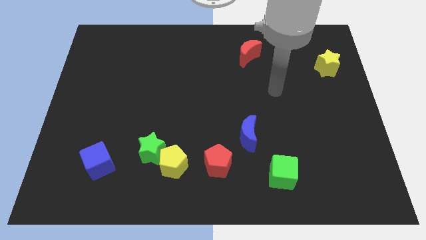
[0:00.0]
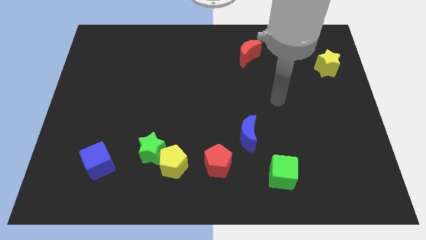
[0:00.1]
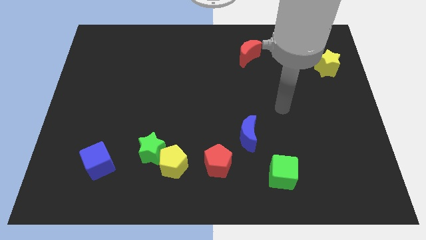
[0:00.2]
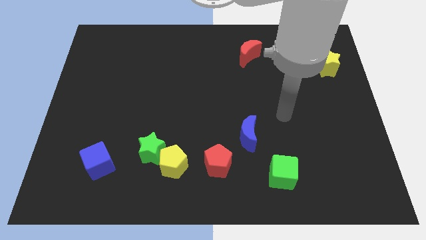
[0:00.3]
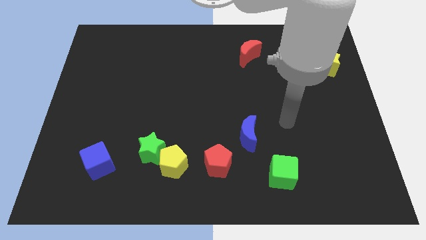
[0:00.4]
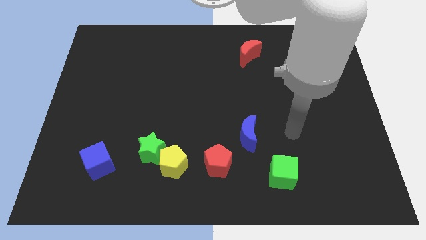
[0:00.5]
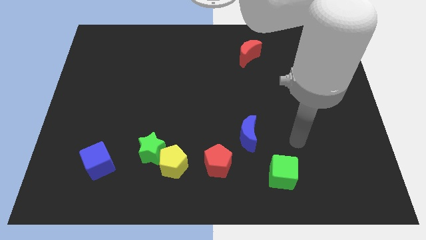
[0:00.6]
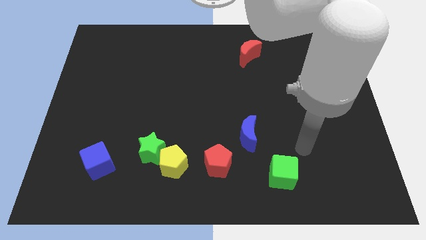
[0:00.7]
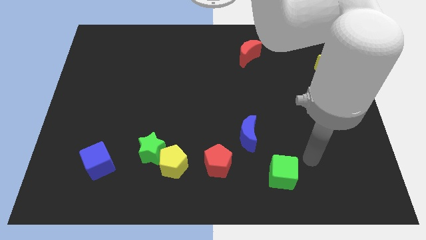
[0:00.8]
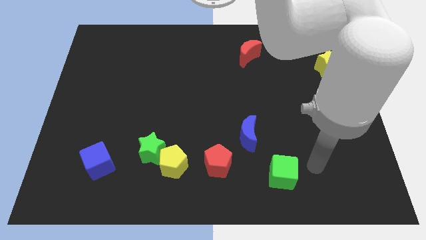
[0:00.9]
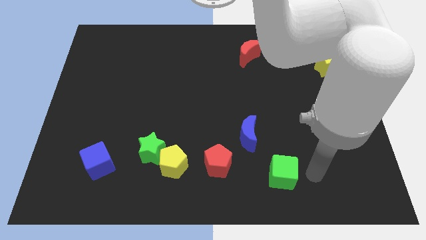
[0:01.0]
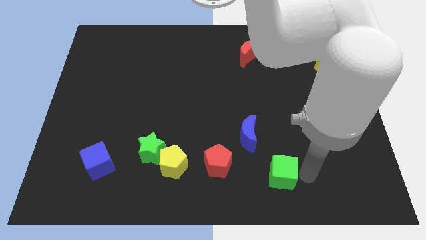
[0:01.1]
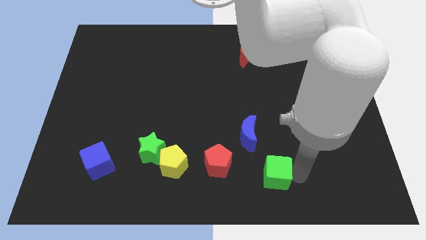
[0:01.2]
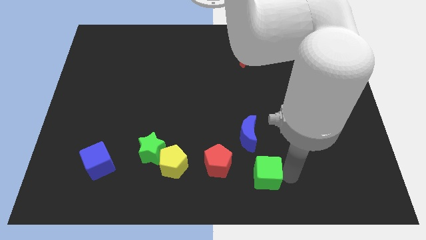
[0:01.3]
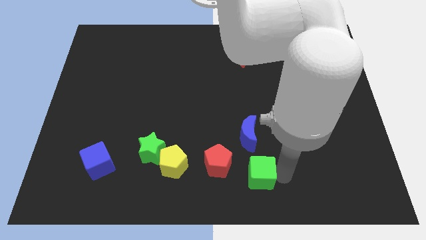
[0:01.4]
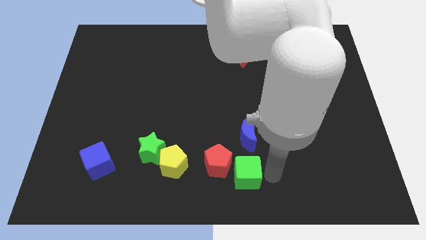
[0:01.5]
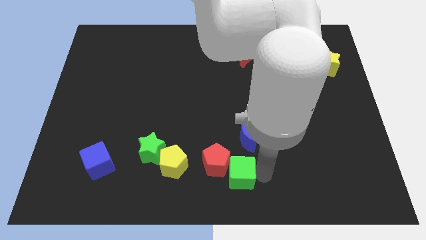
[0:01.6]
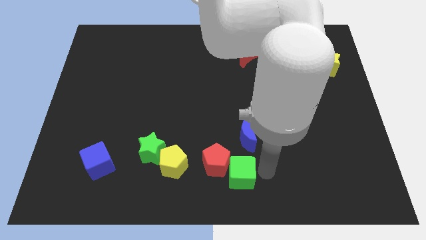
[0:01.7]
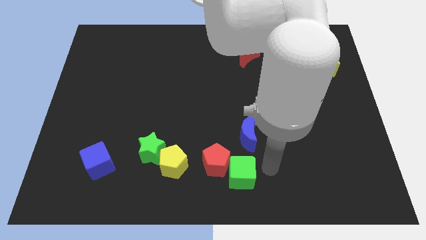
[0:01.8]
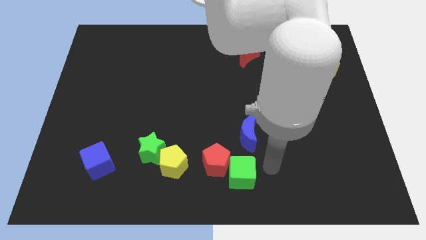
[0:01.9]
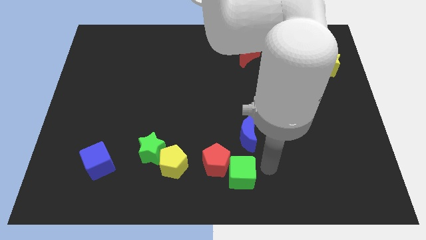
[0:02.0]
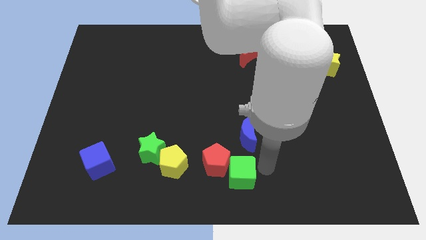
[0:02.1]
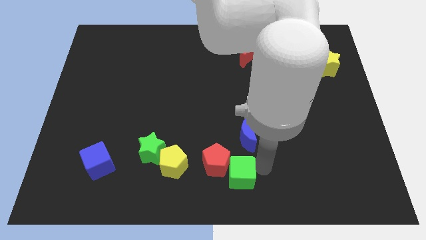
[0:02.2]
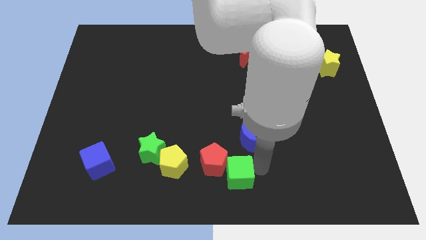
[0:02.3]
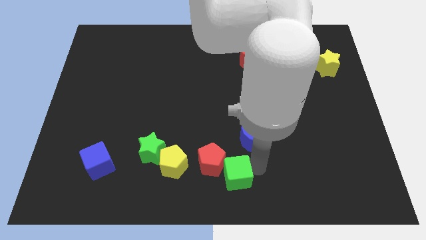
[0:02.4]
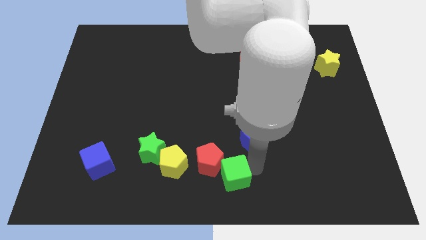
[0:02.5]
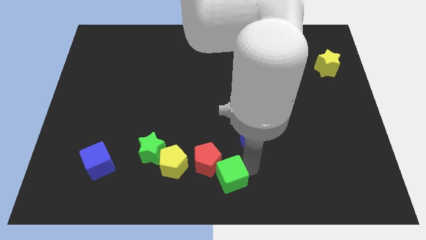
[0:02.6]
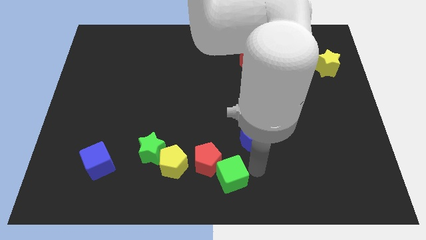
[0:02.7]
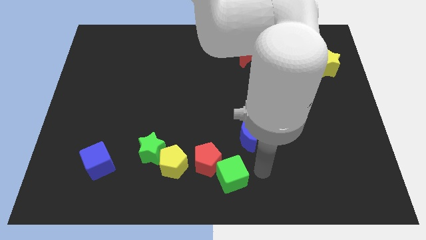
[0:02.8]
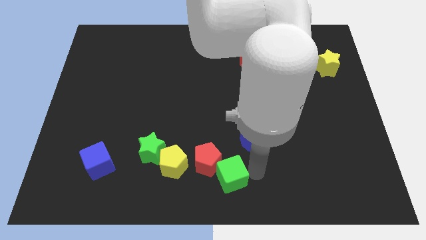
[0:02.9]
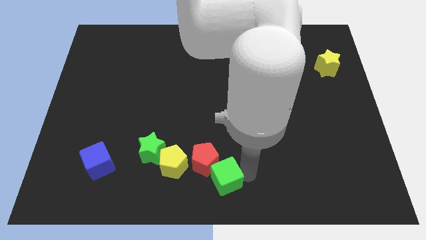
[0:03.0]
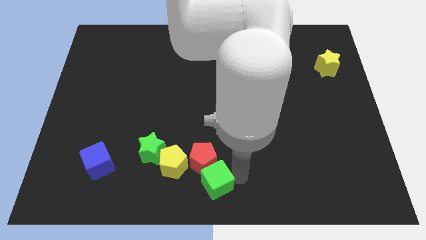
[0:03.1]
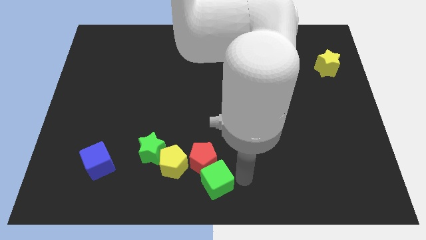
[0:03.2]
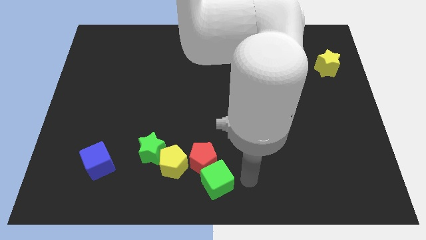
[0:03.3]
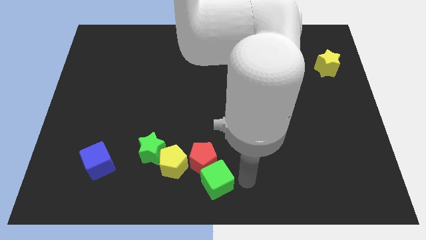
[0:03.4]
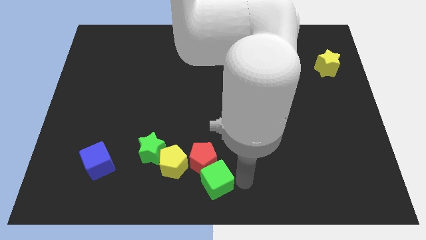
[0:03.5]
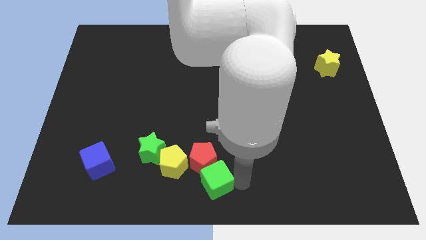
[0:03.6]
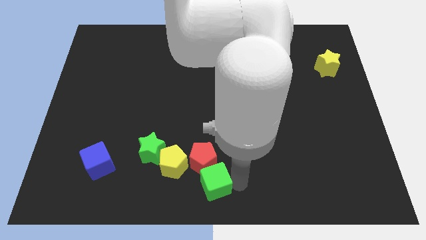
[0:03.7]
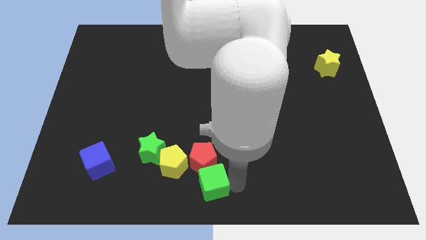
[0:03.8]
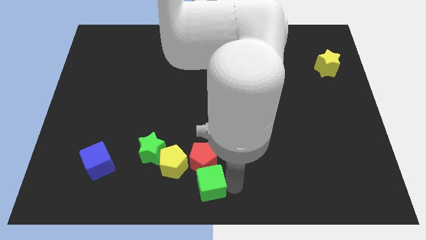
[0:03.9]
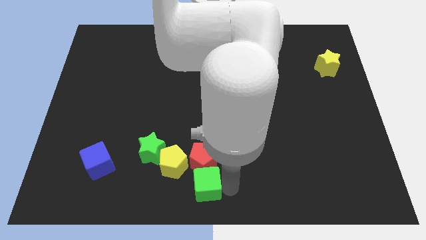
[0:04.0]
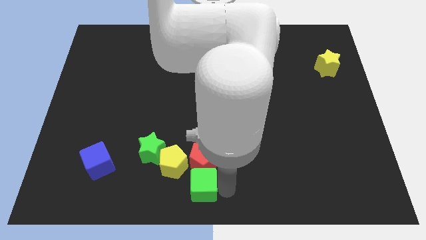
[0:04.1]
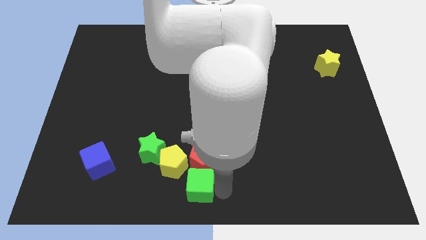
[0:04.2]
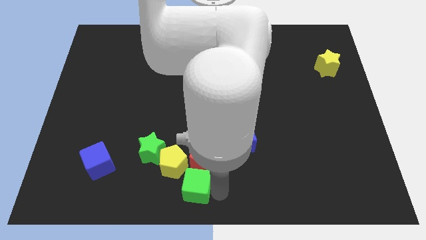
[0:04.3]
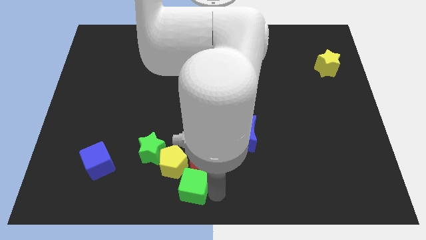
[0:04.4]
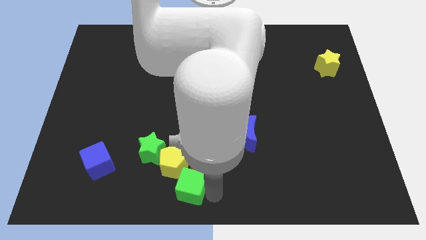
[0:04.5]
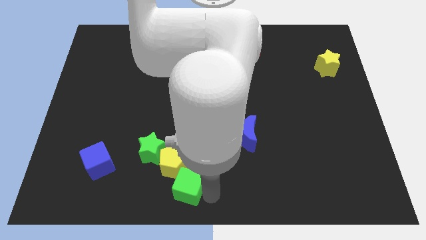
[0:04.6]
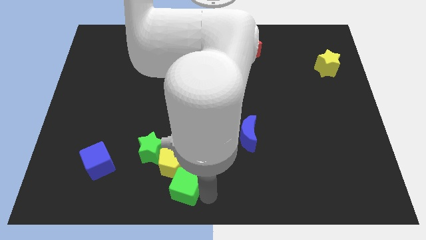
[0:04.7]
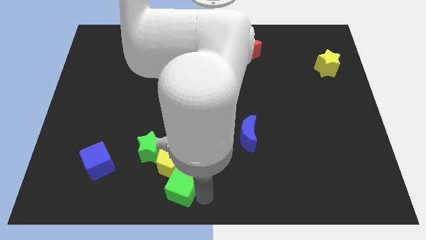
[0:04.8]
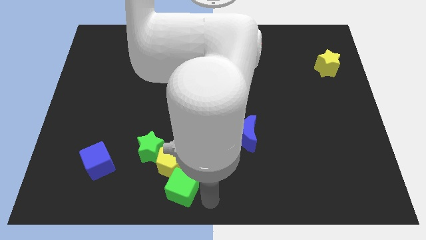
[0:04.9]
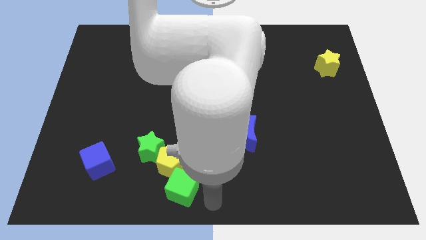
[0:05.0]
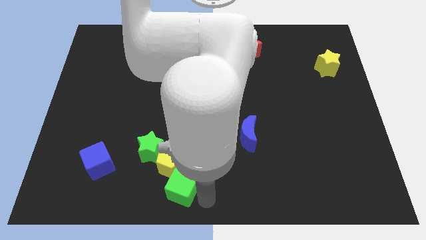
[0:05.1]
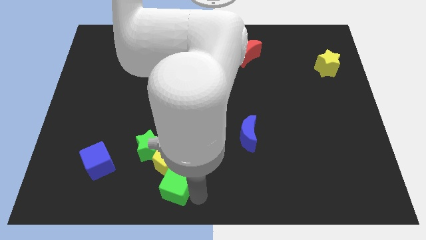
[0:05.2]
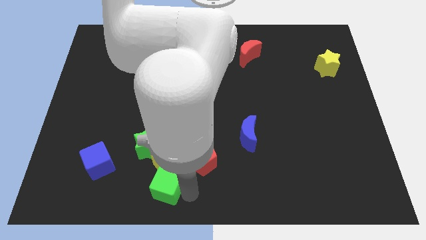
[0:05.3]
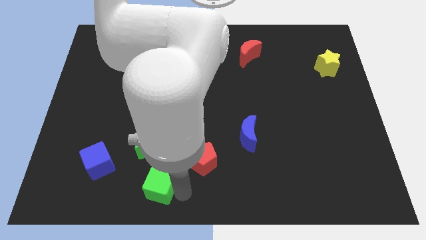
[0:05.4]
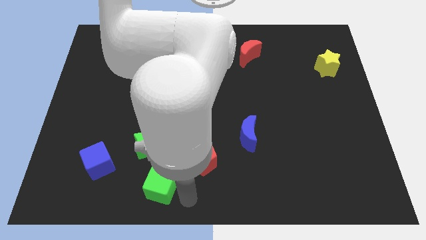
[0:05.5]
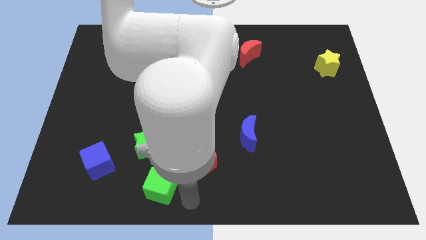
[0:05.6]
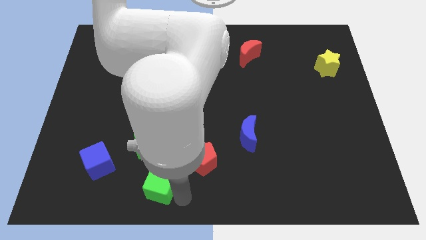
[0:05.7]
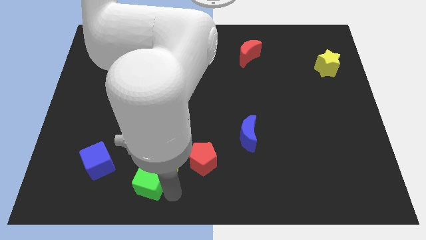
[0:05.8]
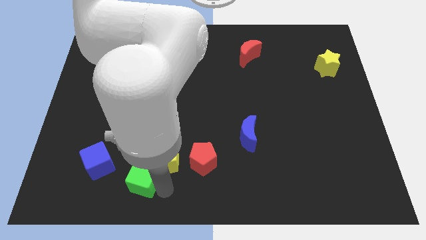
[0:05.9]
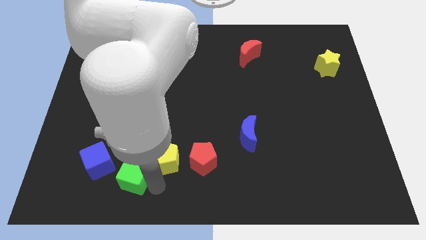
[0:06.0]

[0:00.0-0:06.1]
put the green cube to the bottom left side of the green star

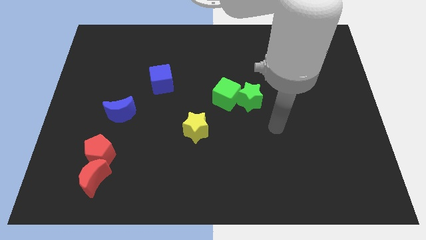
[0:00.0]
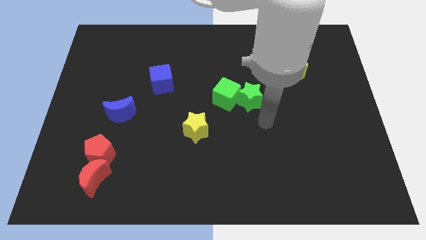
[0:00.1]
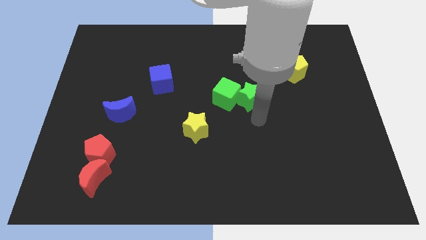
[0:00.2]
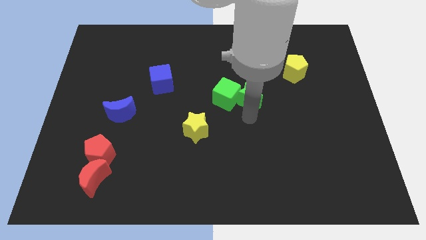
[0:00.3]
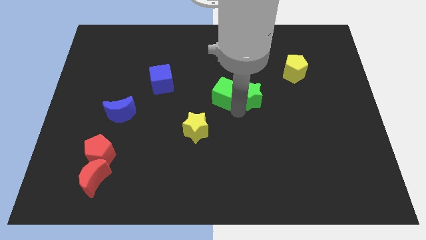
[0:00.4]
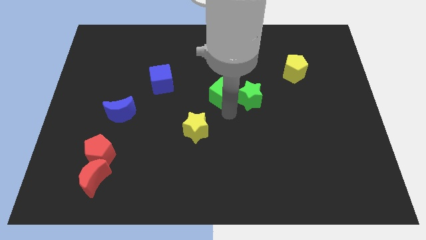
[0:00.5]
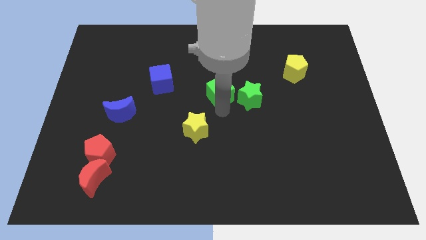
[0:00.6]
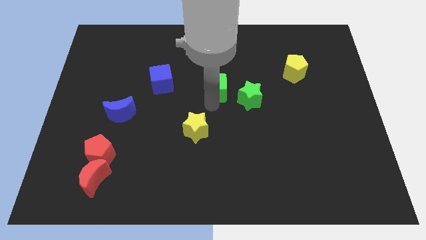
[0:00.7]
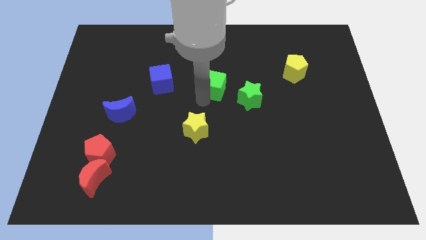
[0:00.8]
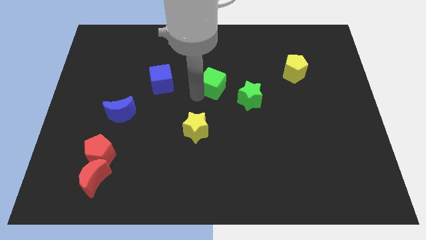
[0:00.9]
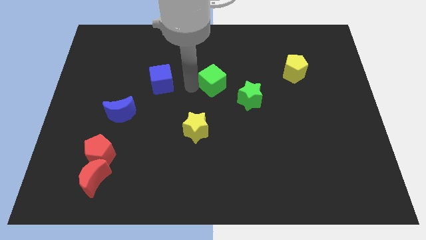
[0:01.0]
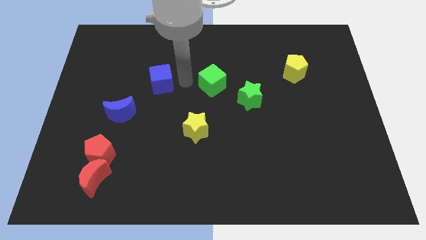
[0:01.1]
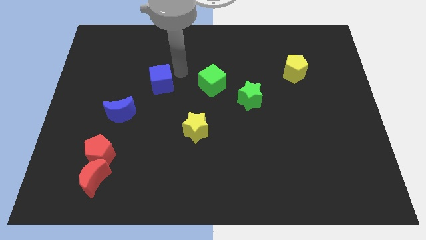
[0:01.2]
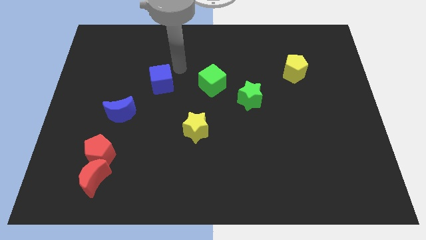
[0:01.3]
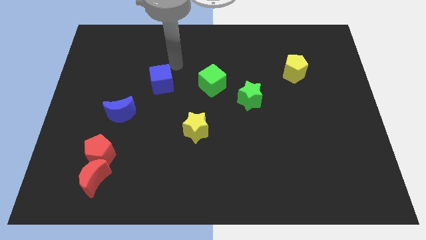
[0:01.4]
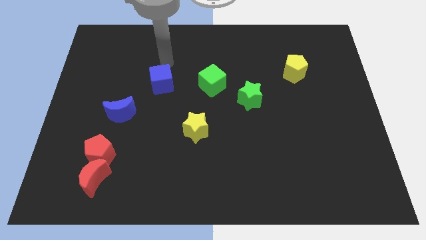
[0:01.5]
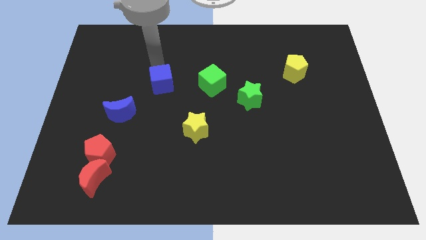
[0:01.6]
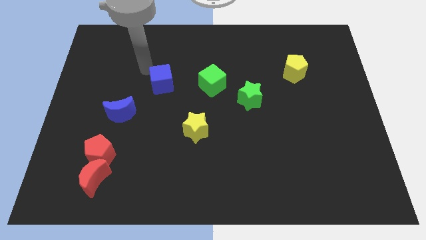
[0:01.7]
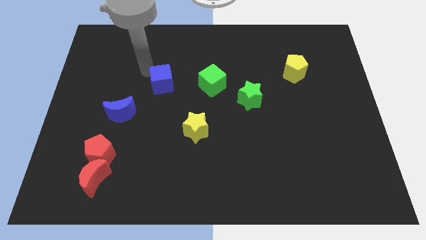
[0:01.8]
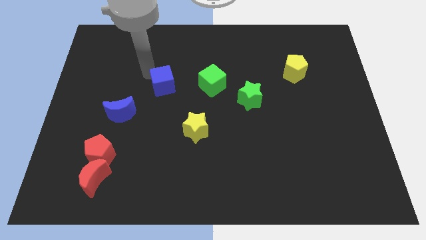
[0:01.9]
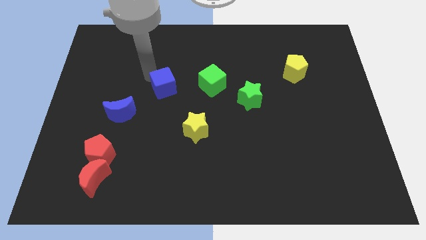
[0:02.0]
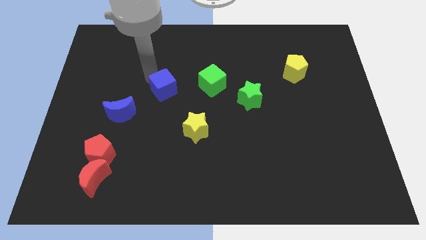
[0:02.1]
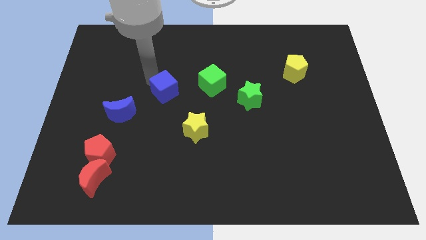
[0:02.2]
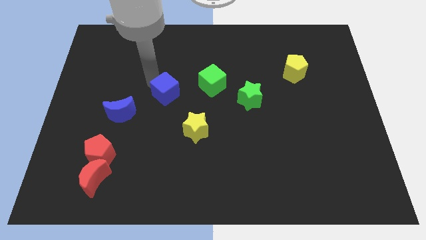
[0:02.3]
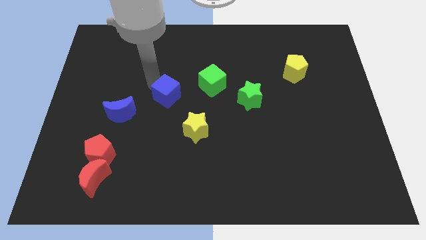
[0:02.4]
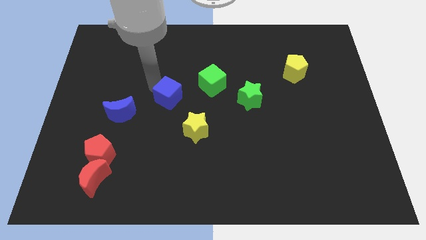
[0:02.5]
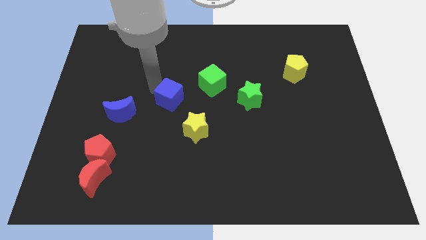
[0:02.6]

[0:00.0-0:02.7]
push the blue cube diagonally down and to the left of the green cube

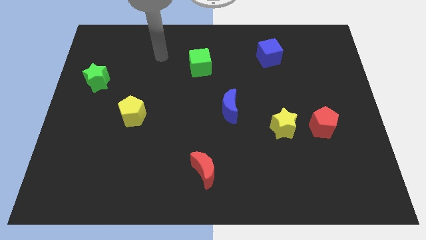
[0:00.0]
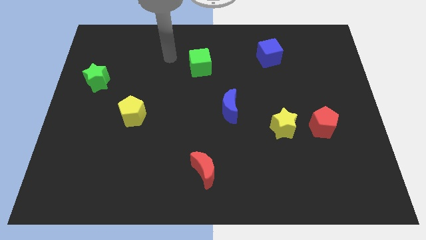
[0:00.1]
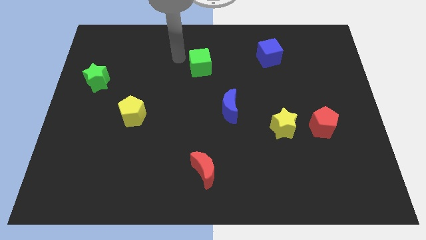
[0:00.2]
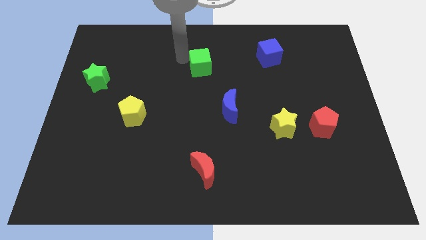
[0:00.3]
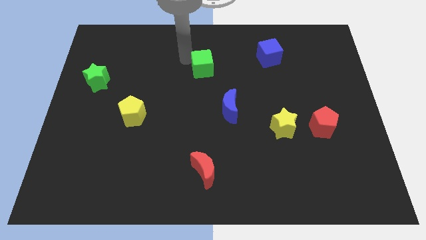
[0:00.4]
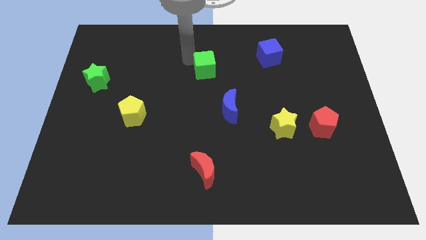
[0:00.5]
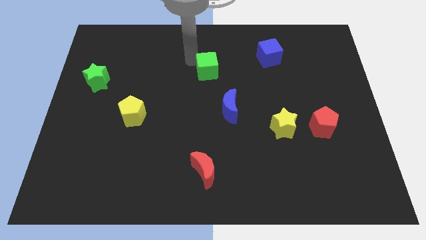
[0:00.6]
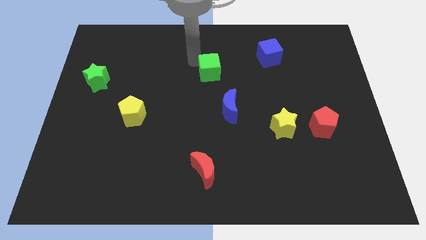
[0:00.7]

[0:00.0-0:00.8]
slide the green cube above the blue moon
